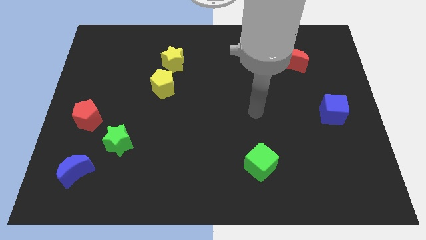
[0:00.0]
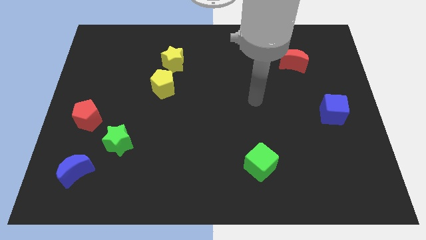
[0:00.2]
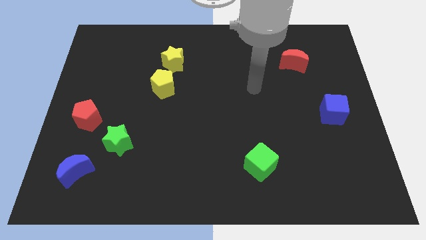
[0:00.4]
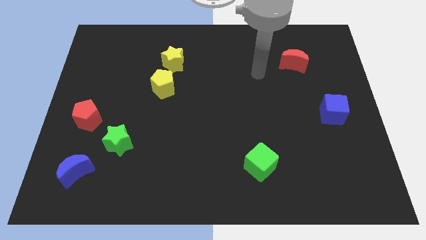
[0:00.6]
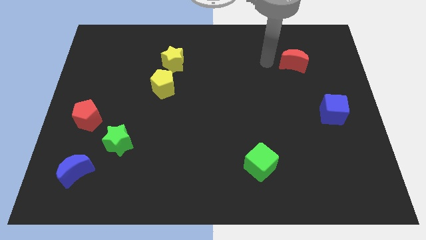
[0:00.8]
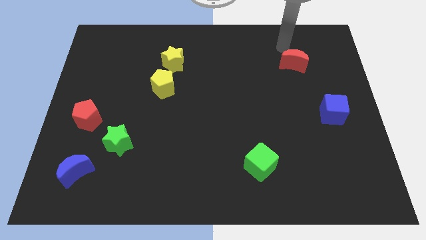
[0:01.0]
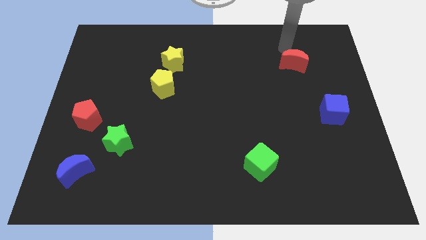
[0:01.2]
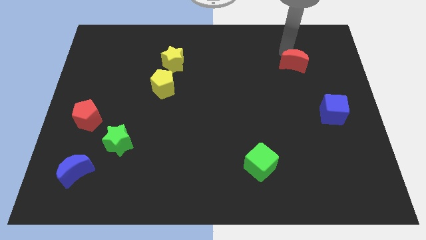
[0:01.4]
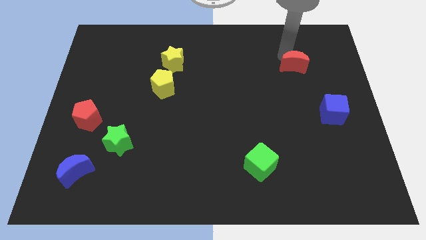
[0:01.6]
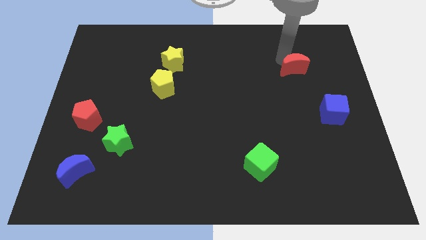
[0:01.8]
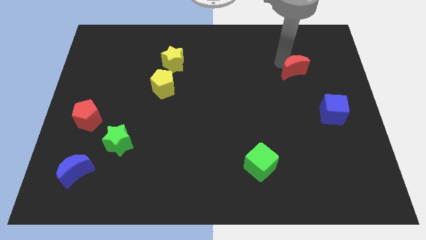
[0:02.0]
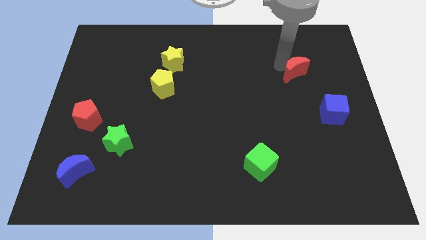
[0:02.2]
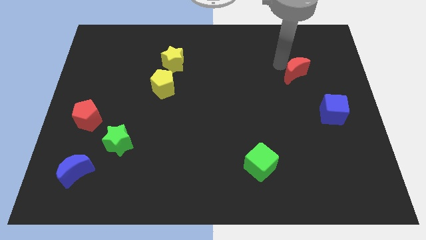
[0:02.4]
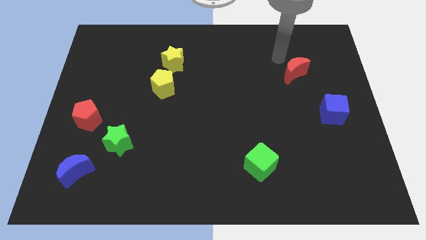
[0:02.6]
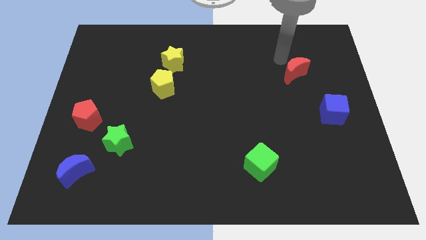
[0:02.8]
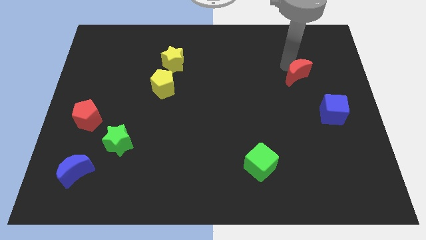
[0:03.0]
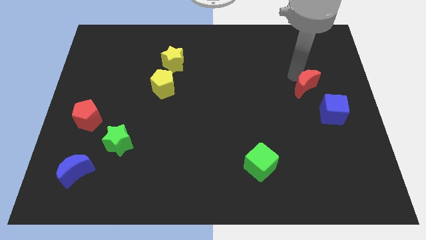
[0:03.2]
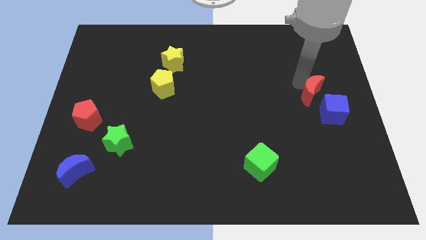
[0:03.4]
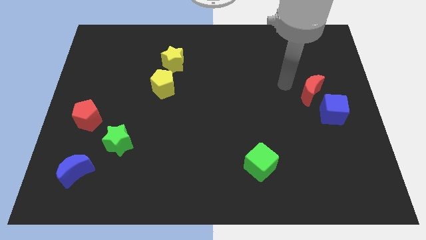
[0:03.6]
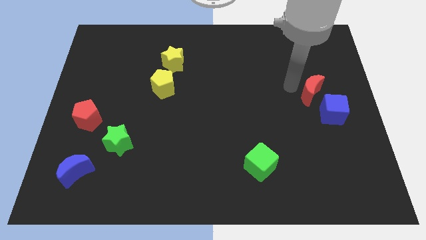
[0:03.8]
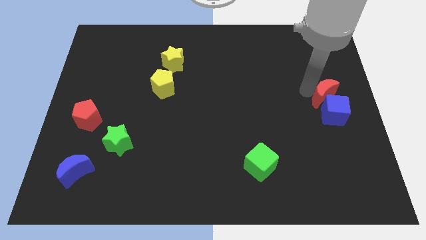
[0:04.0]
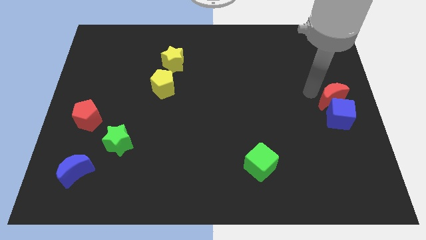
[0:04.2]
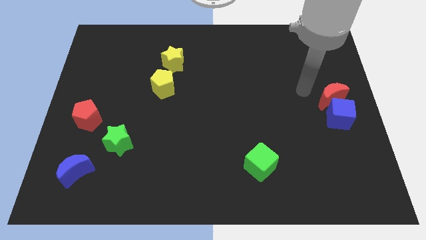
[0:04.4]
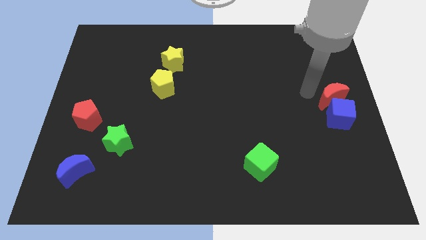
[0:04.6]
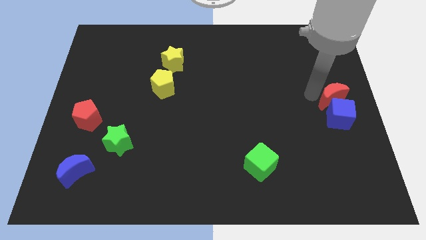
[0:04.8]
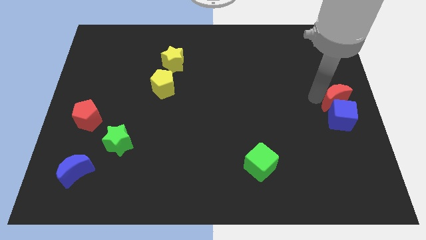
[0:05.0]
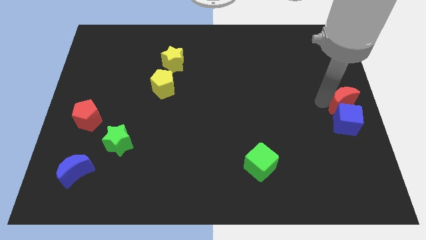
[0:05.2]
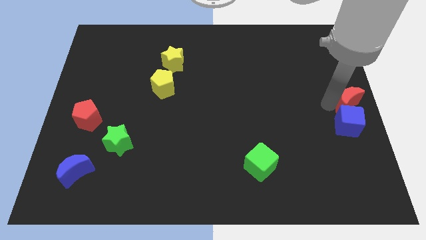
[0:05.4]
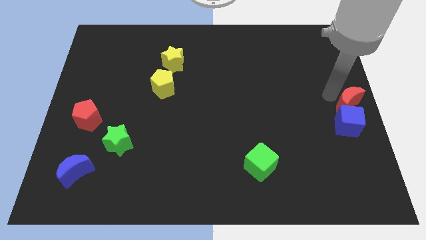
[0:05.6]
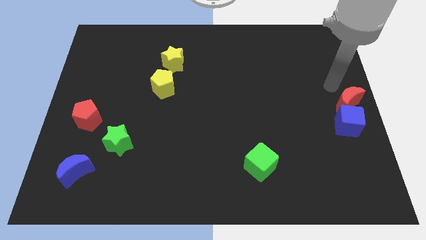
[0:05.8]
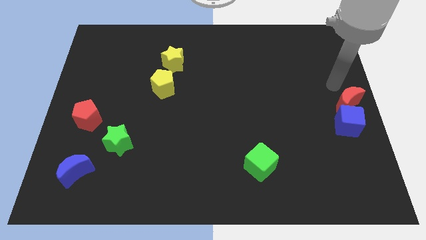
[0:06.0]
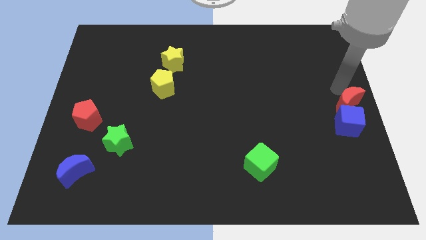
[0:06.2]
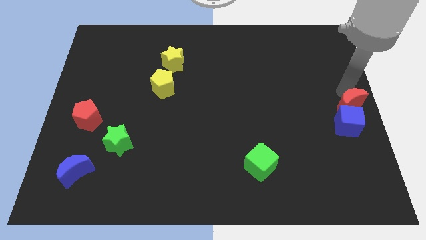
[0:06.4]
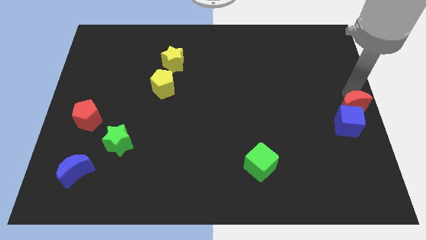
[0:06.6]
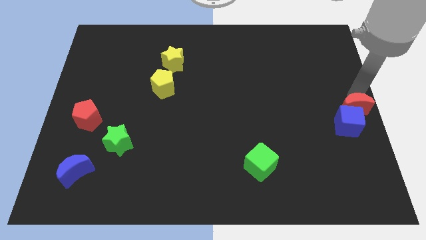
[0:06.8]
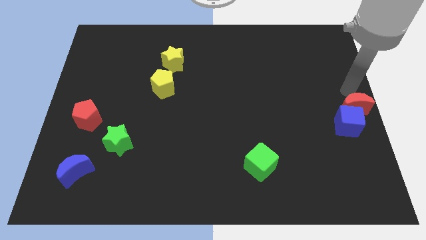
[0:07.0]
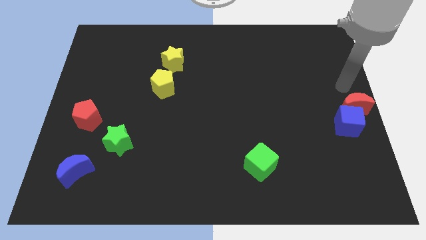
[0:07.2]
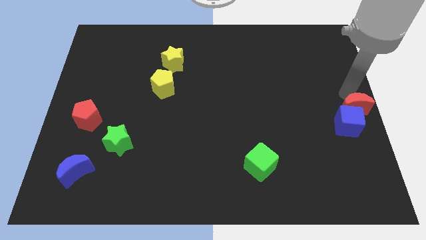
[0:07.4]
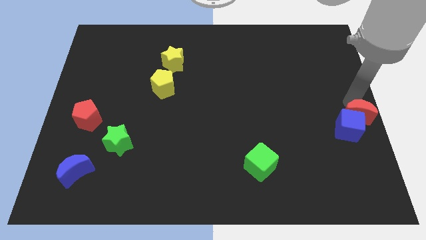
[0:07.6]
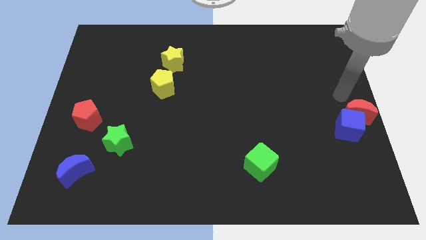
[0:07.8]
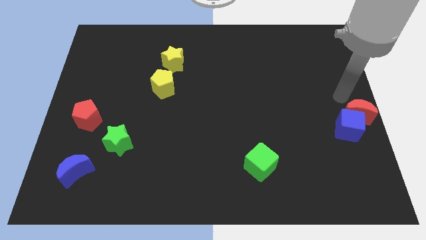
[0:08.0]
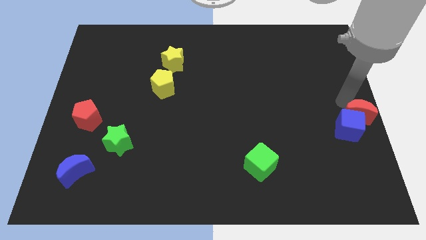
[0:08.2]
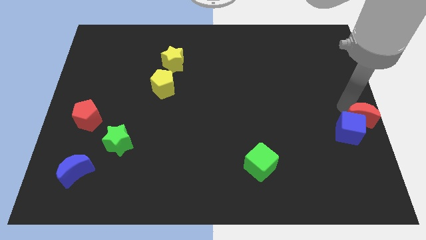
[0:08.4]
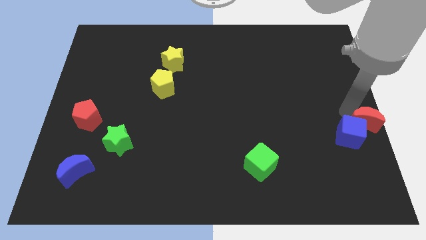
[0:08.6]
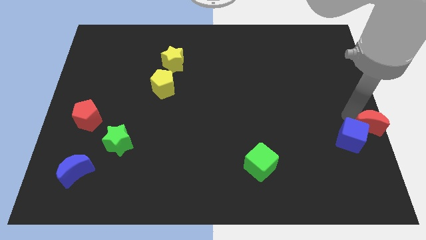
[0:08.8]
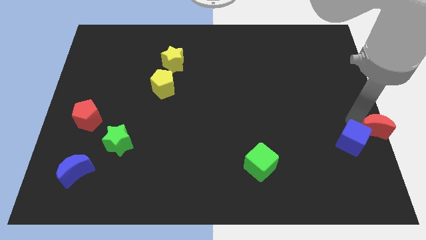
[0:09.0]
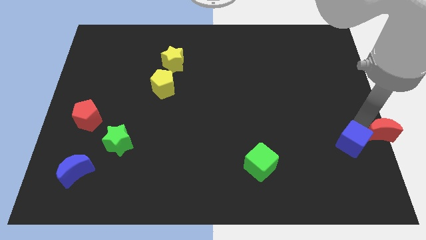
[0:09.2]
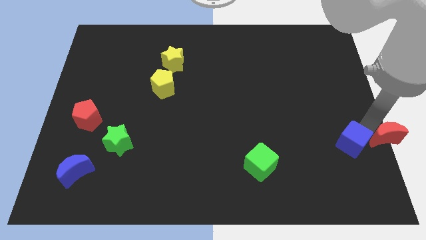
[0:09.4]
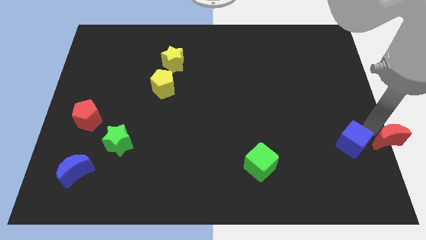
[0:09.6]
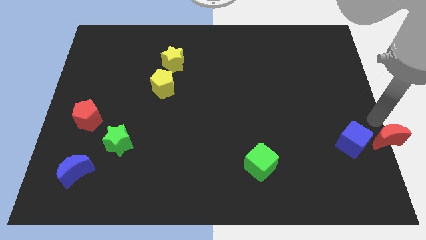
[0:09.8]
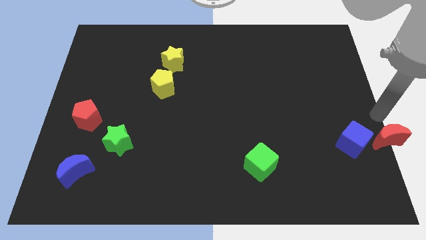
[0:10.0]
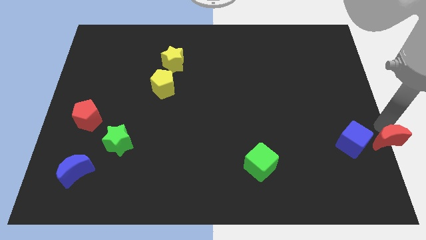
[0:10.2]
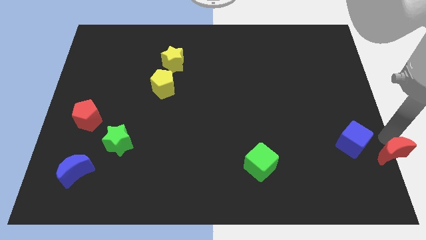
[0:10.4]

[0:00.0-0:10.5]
push the red moon to the lower right corner

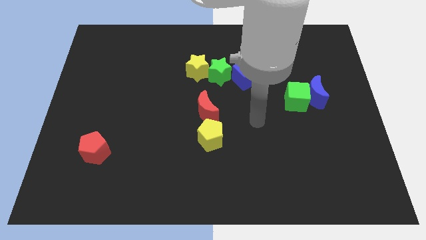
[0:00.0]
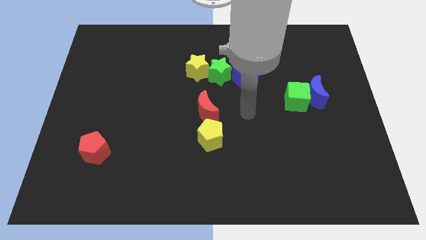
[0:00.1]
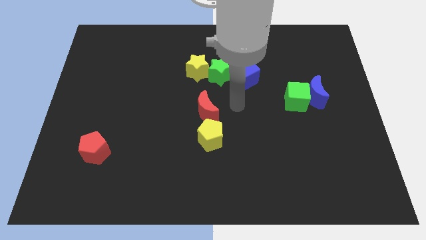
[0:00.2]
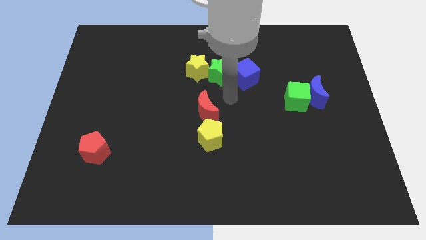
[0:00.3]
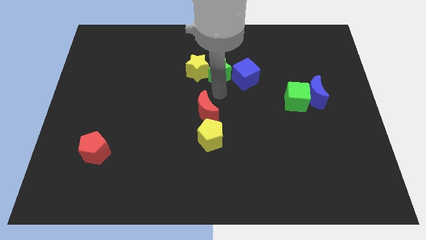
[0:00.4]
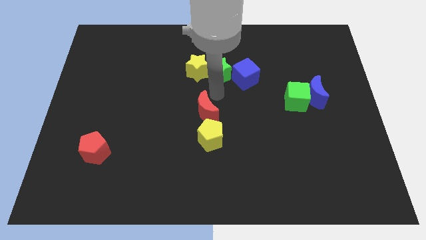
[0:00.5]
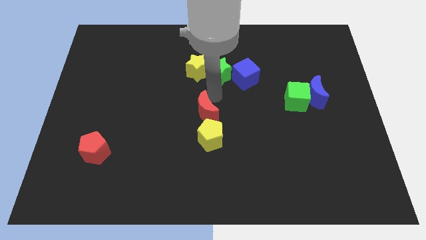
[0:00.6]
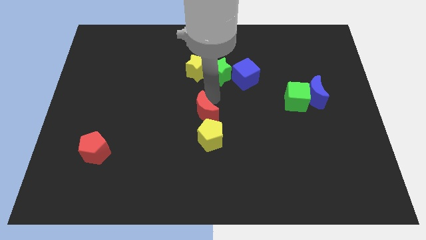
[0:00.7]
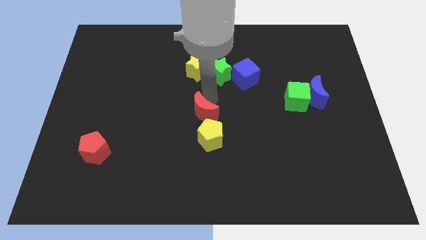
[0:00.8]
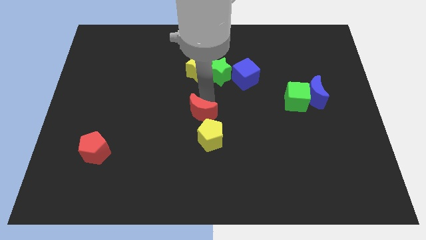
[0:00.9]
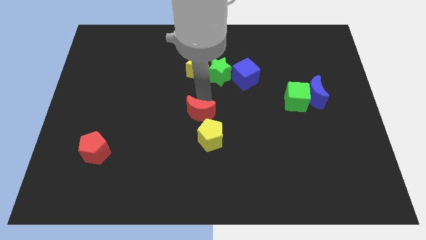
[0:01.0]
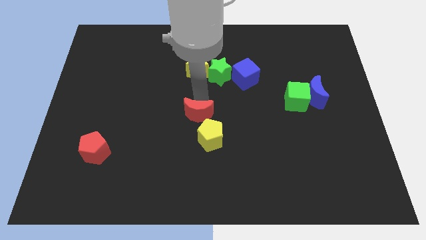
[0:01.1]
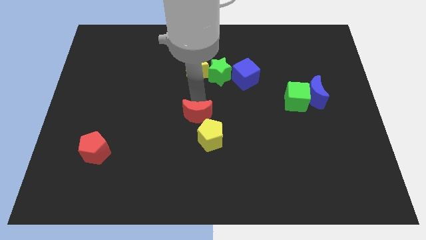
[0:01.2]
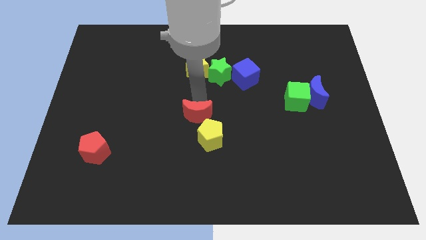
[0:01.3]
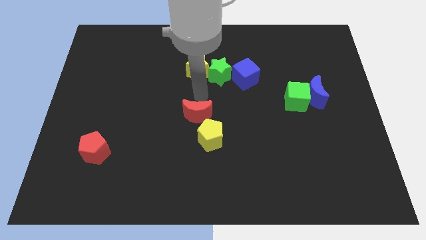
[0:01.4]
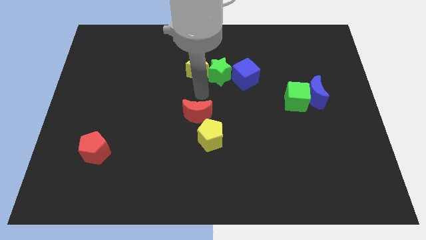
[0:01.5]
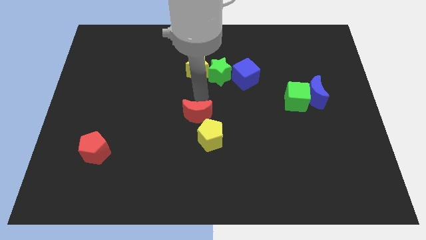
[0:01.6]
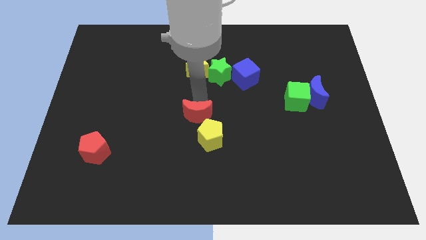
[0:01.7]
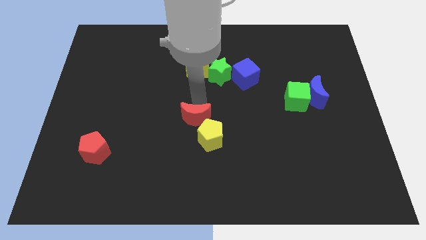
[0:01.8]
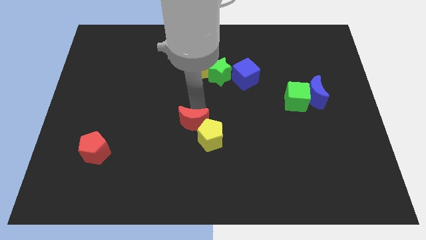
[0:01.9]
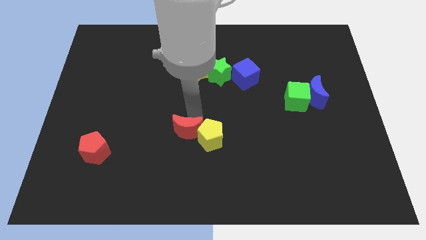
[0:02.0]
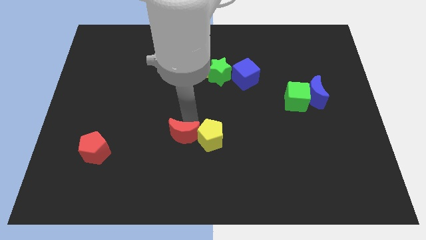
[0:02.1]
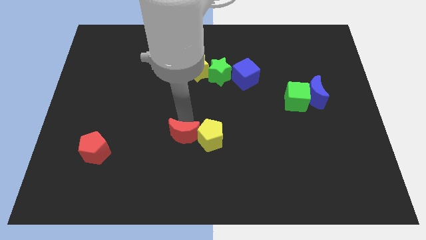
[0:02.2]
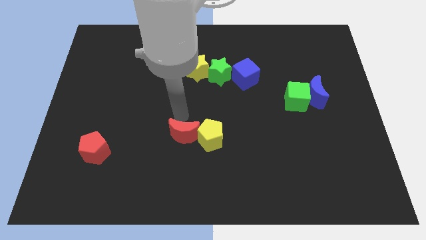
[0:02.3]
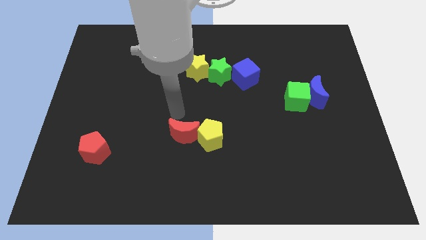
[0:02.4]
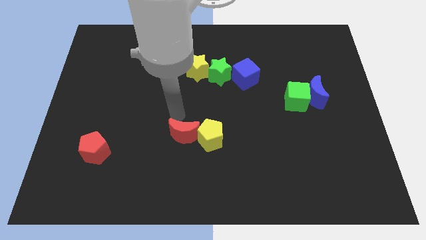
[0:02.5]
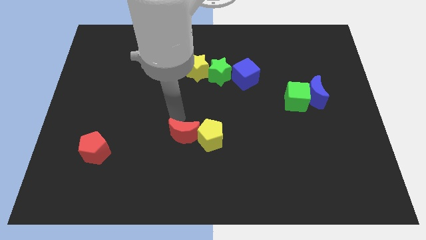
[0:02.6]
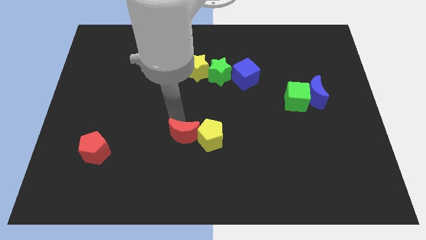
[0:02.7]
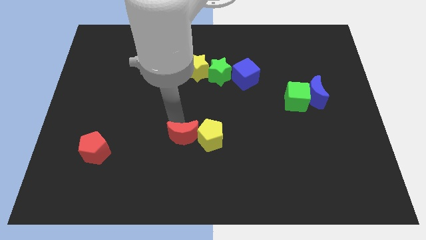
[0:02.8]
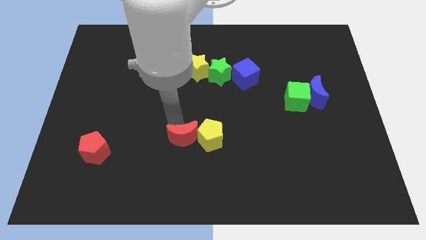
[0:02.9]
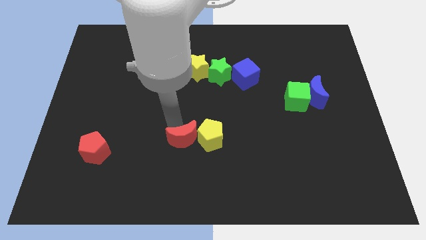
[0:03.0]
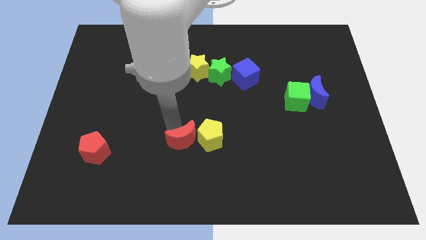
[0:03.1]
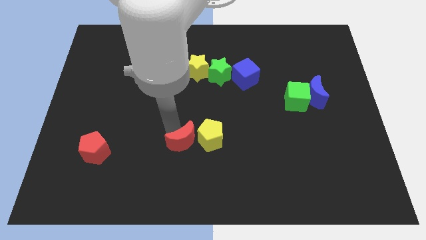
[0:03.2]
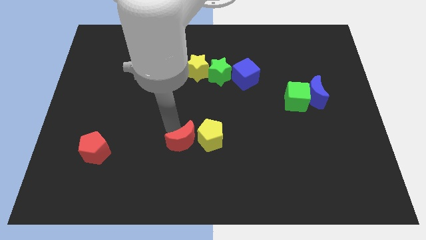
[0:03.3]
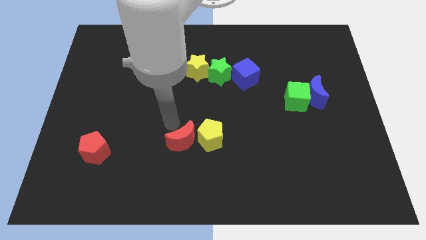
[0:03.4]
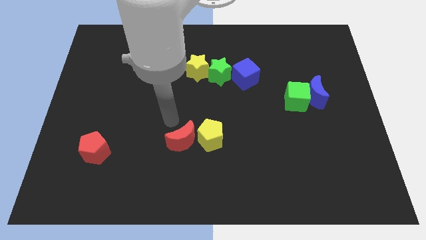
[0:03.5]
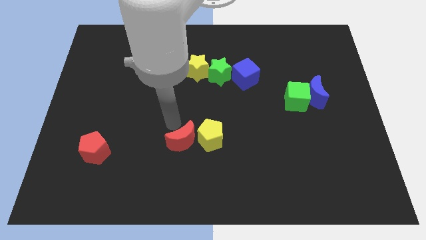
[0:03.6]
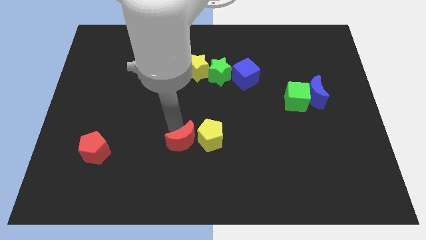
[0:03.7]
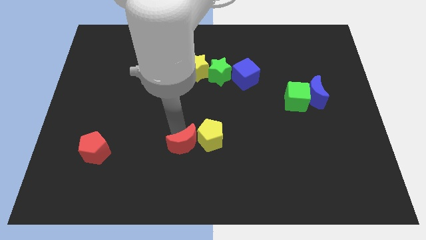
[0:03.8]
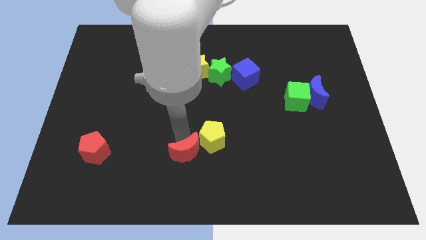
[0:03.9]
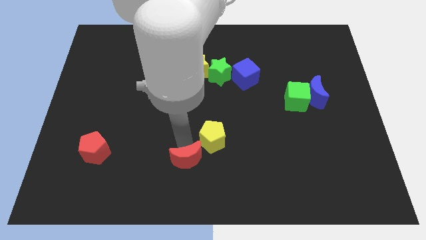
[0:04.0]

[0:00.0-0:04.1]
move the red moon to the bottom
